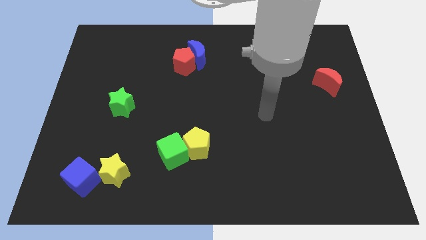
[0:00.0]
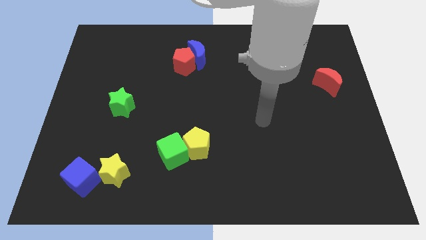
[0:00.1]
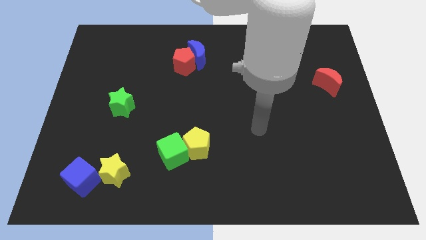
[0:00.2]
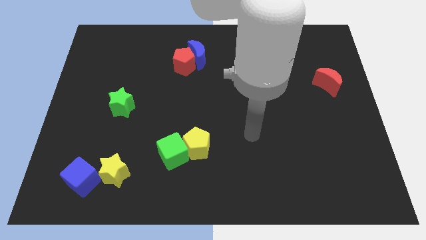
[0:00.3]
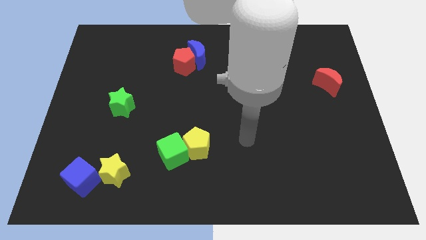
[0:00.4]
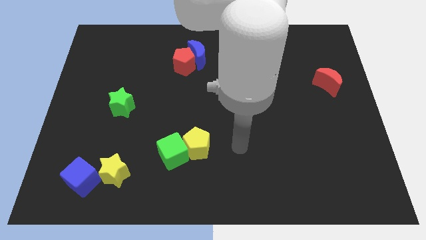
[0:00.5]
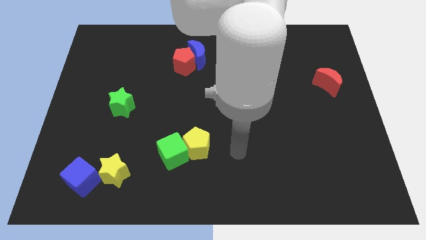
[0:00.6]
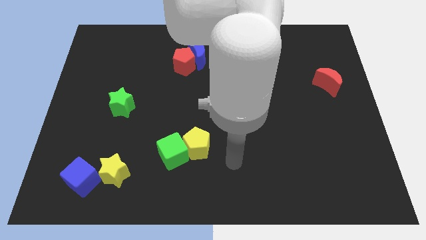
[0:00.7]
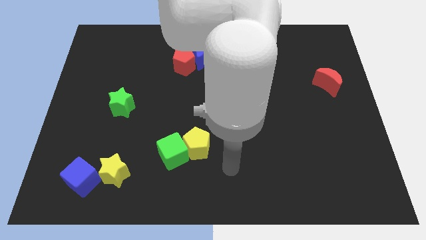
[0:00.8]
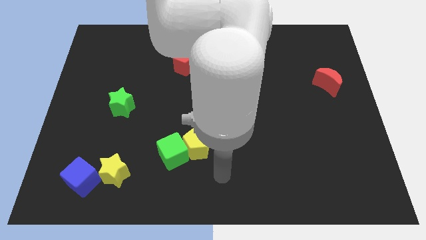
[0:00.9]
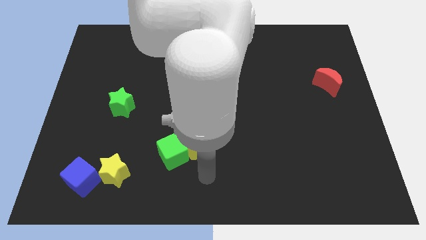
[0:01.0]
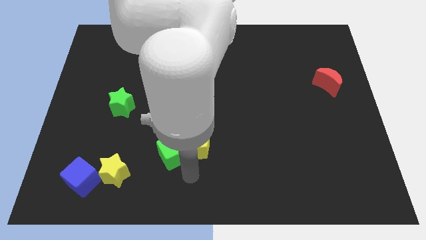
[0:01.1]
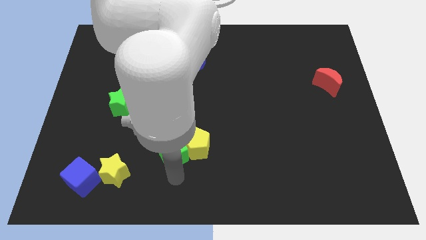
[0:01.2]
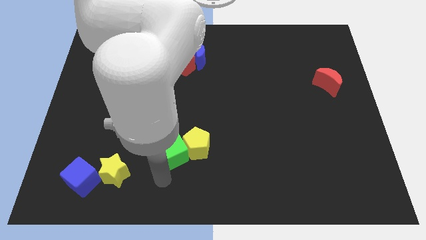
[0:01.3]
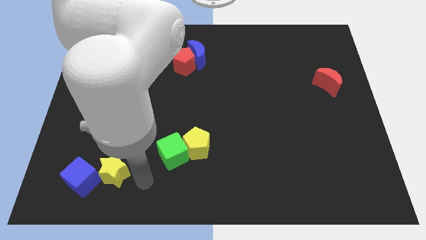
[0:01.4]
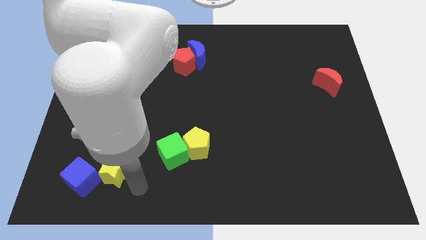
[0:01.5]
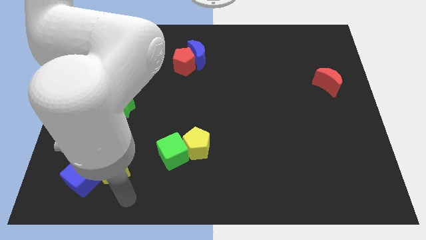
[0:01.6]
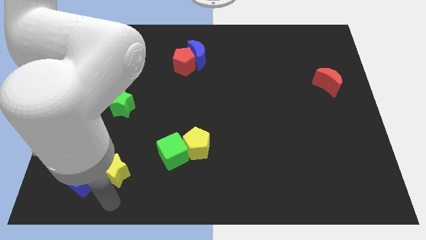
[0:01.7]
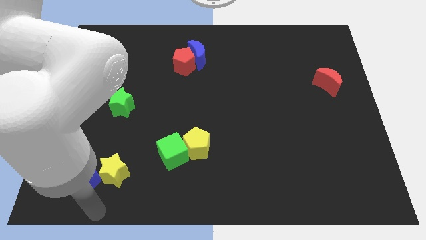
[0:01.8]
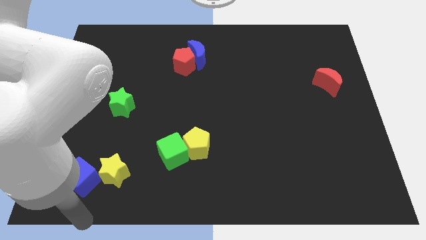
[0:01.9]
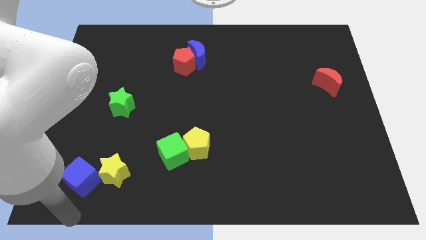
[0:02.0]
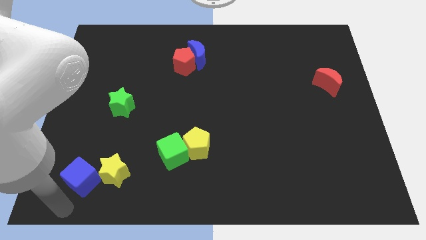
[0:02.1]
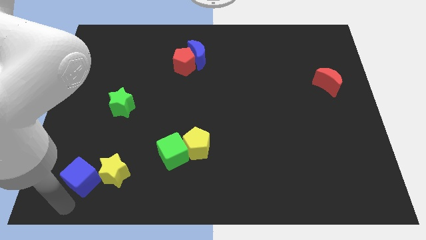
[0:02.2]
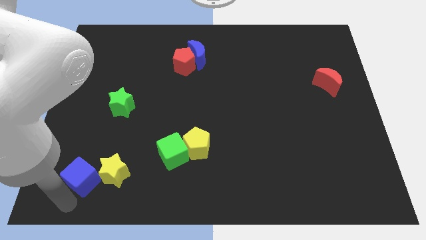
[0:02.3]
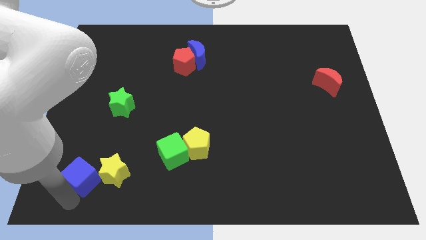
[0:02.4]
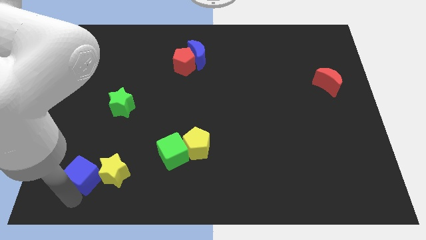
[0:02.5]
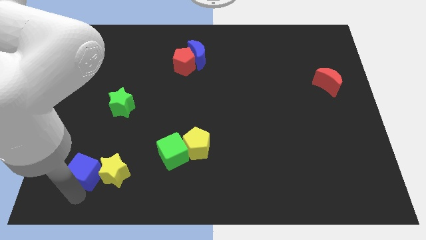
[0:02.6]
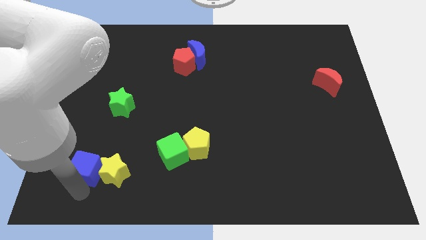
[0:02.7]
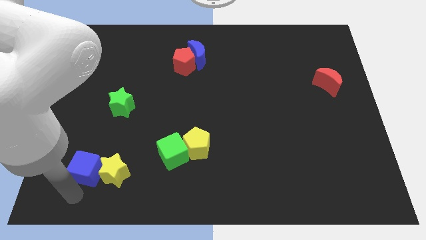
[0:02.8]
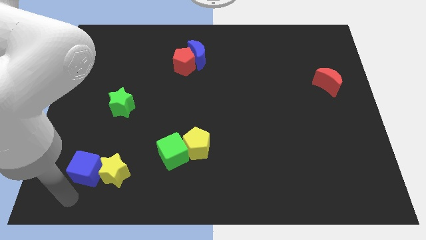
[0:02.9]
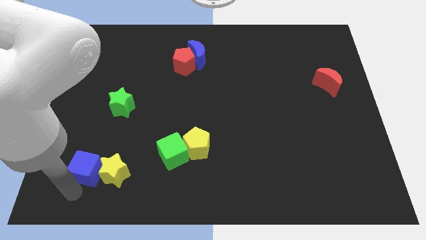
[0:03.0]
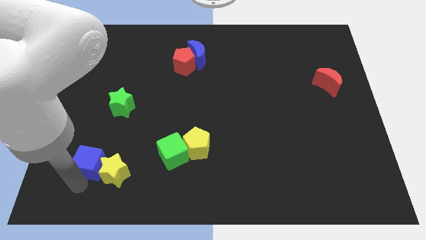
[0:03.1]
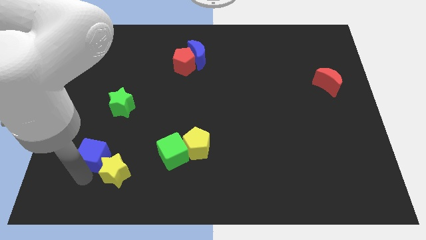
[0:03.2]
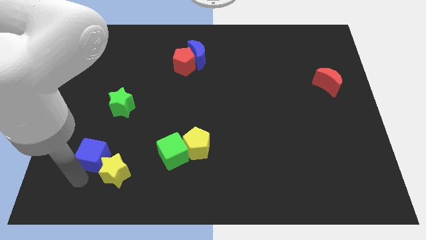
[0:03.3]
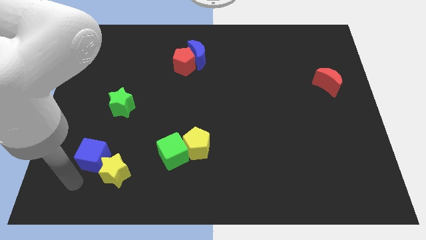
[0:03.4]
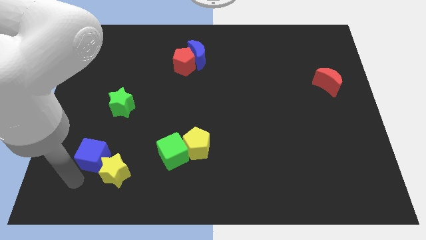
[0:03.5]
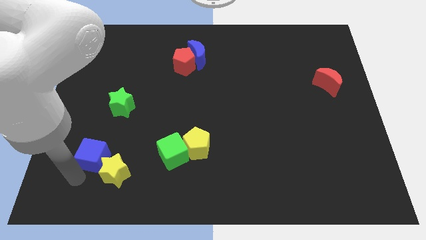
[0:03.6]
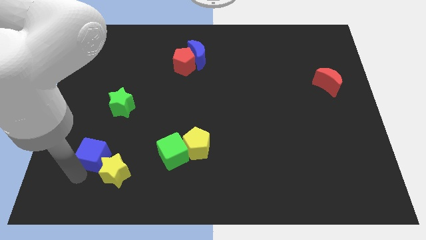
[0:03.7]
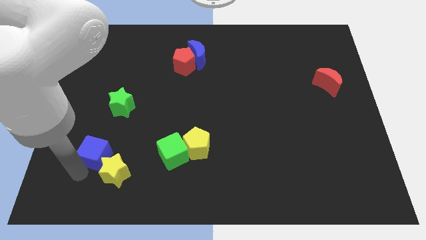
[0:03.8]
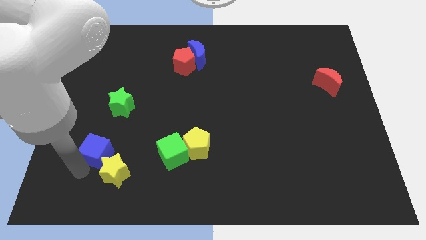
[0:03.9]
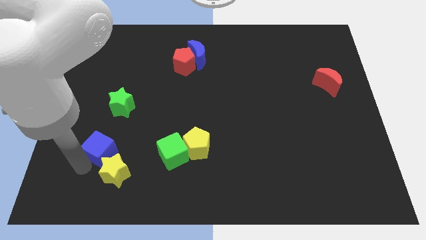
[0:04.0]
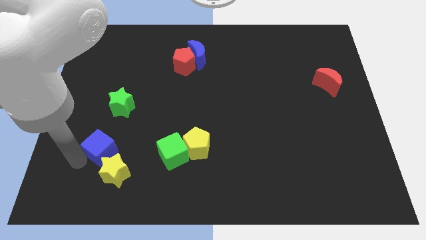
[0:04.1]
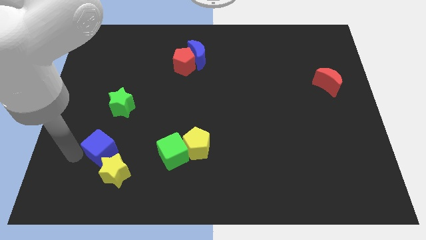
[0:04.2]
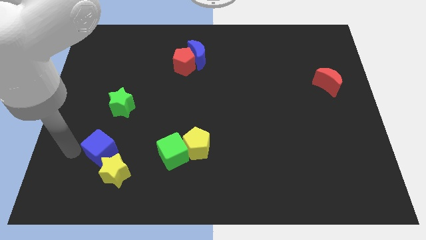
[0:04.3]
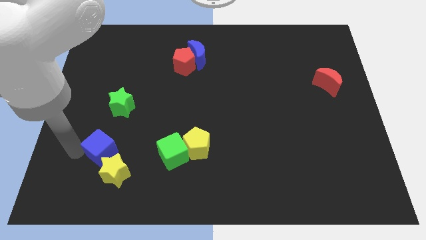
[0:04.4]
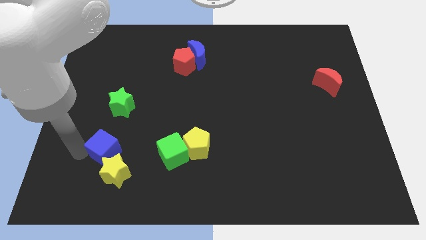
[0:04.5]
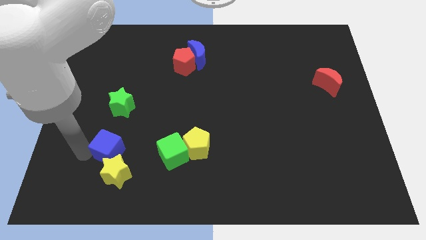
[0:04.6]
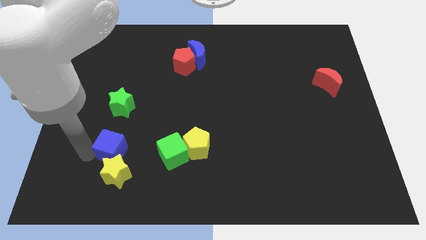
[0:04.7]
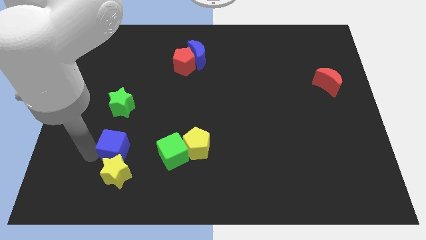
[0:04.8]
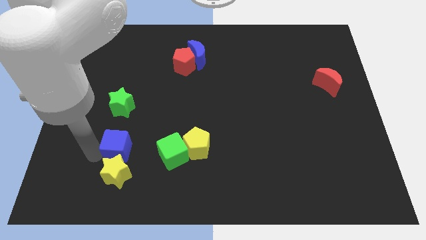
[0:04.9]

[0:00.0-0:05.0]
push the blue cube to the top right side of the yellow star

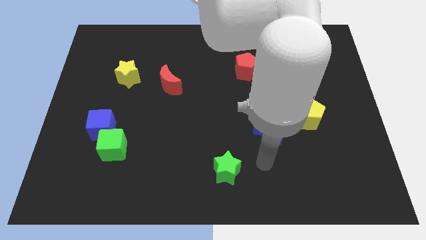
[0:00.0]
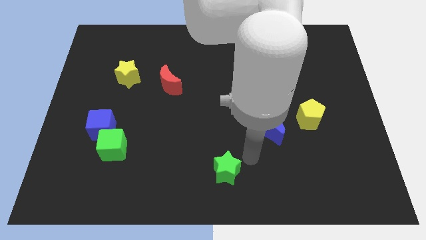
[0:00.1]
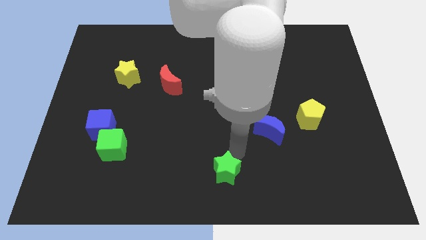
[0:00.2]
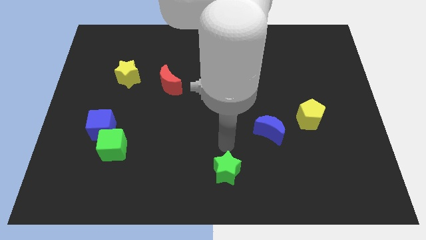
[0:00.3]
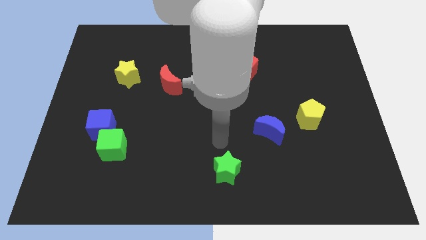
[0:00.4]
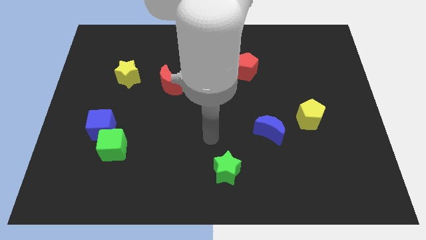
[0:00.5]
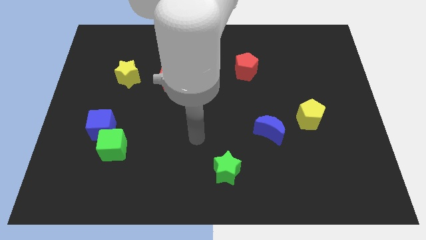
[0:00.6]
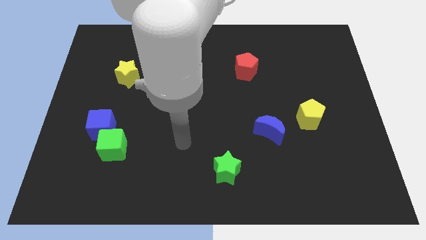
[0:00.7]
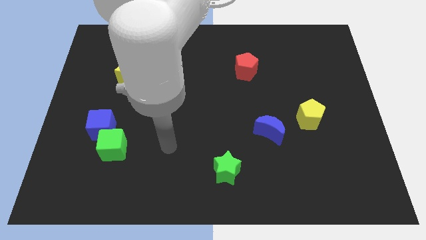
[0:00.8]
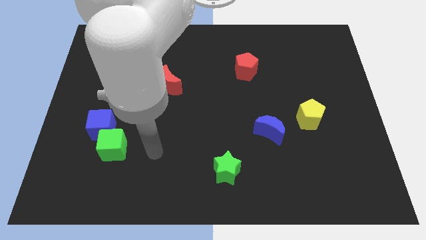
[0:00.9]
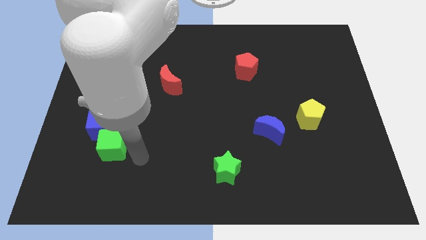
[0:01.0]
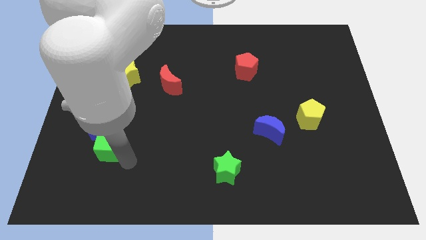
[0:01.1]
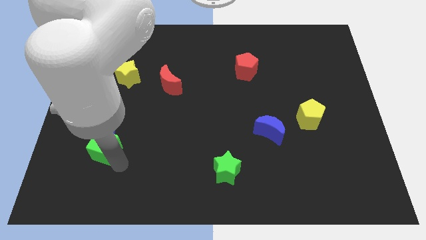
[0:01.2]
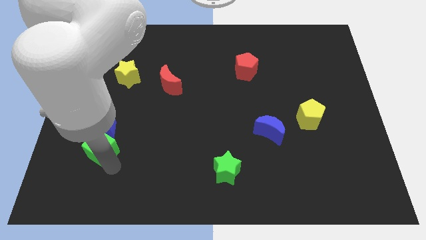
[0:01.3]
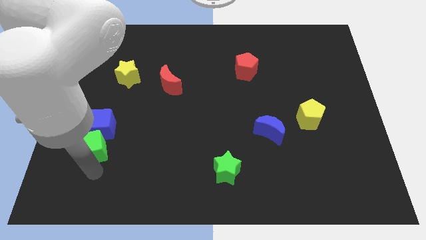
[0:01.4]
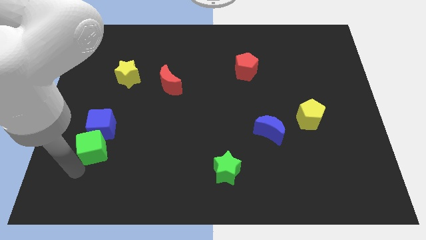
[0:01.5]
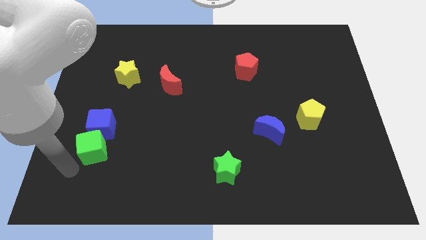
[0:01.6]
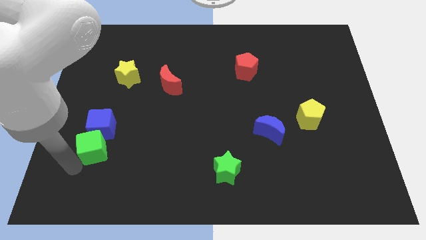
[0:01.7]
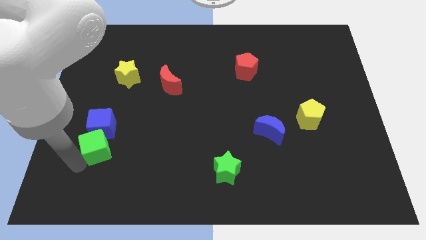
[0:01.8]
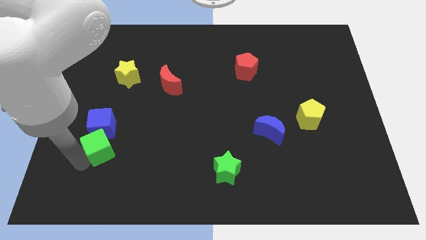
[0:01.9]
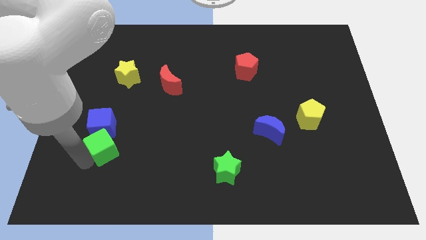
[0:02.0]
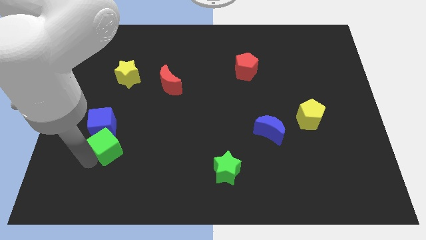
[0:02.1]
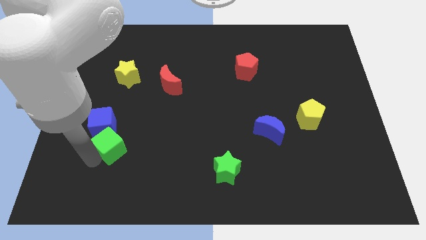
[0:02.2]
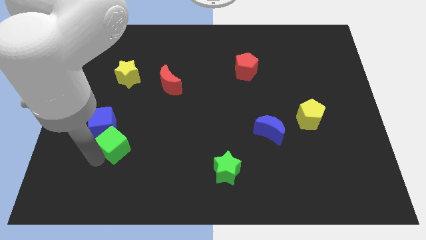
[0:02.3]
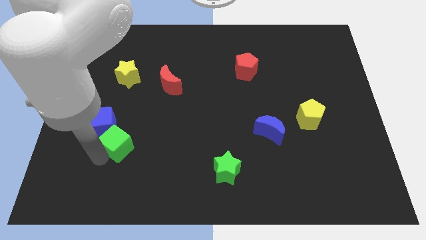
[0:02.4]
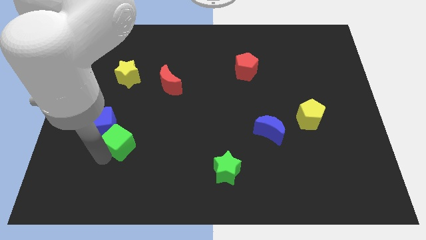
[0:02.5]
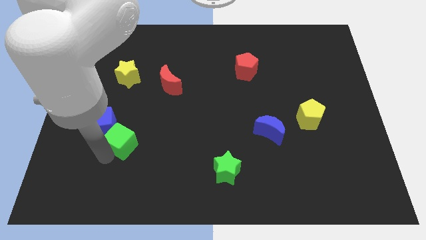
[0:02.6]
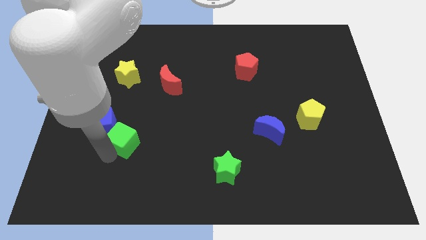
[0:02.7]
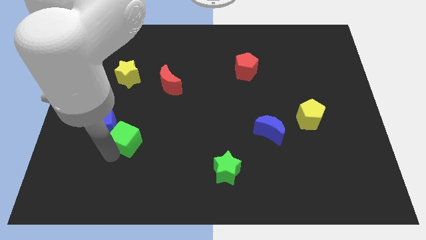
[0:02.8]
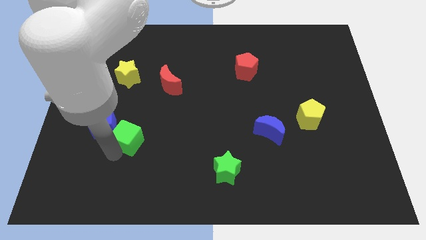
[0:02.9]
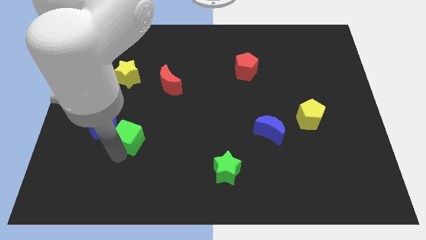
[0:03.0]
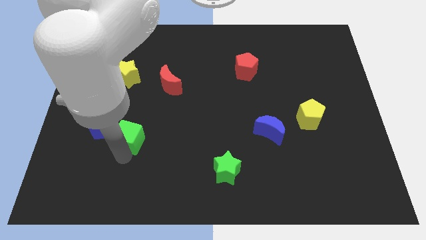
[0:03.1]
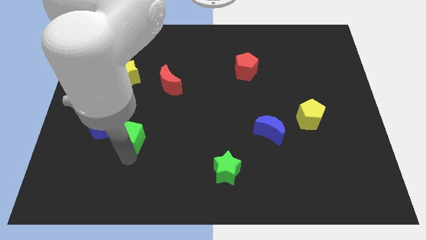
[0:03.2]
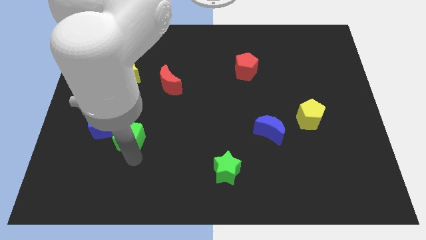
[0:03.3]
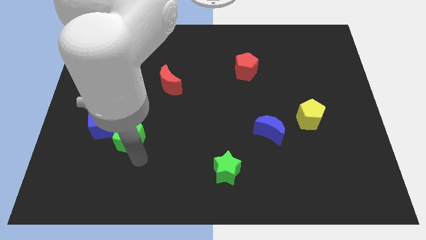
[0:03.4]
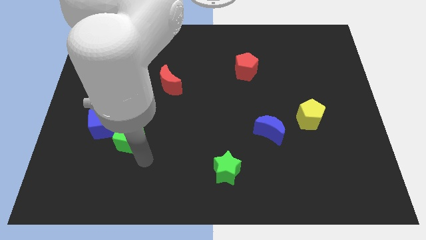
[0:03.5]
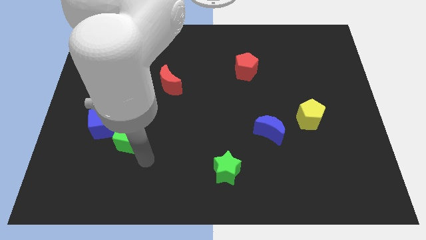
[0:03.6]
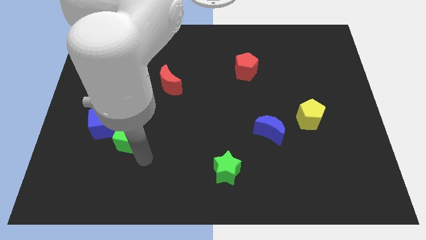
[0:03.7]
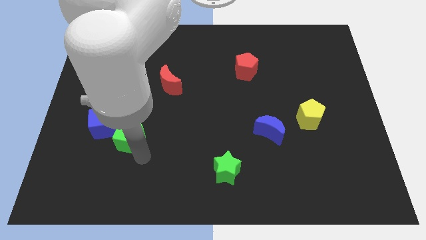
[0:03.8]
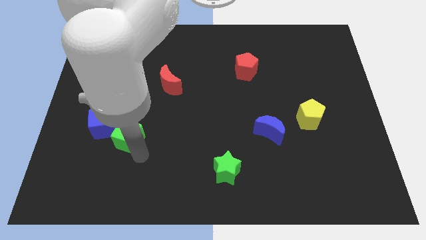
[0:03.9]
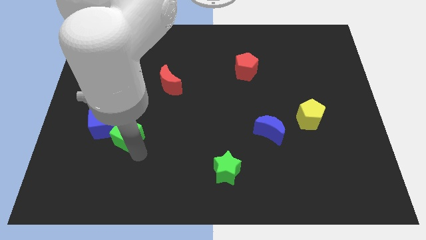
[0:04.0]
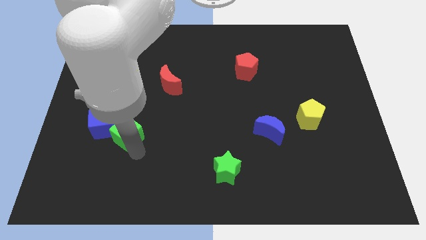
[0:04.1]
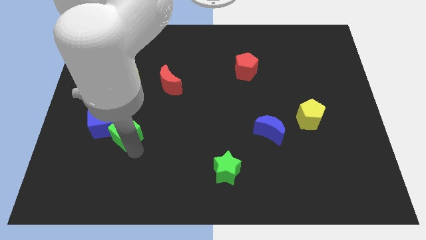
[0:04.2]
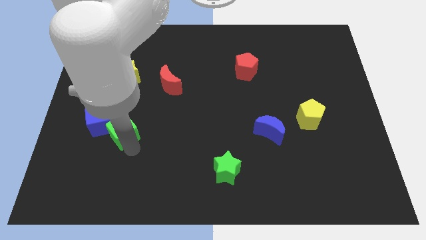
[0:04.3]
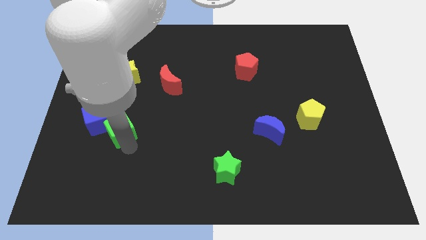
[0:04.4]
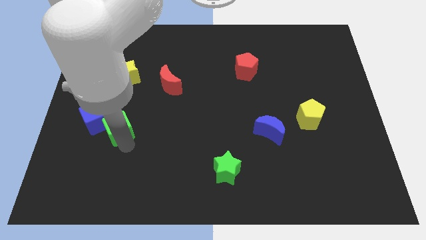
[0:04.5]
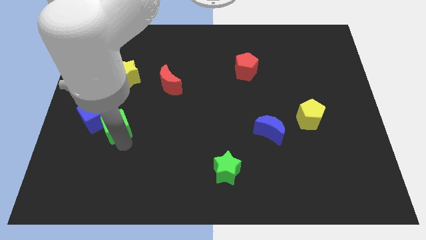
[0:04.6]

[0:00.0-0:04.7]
put the green cube below the yellow star
